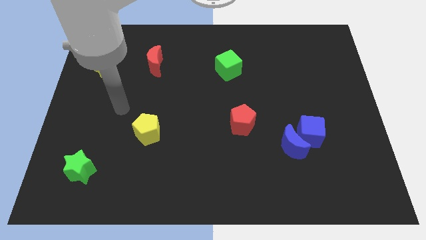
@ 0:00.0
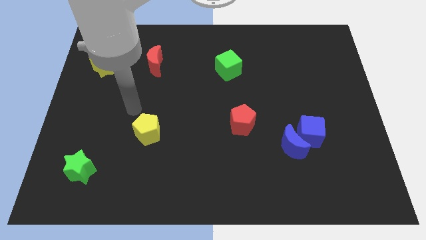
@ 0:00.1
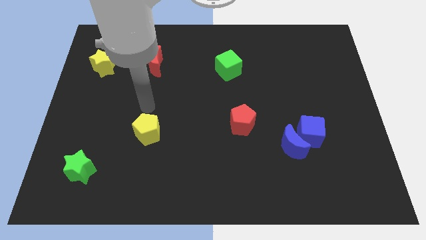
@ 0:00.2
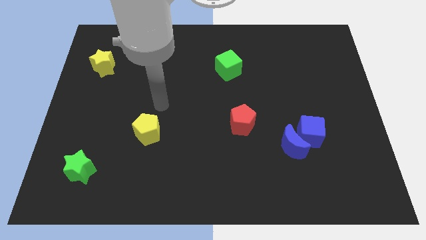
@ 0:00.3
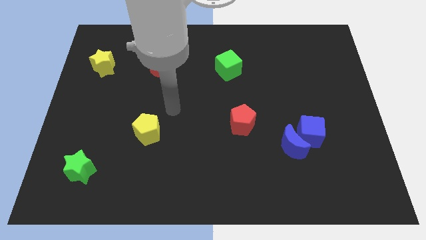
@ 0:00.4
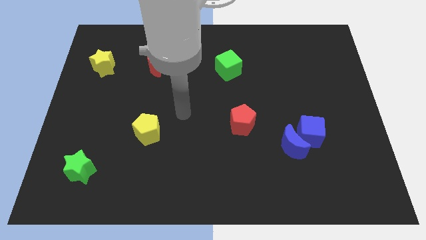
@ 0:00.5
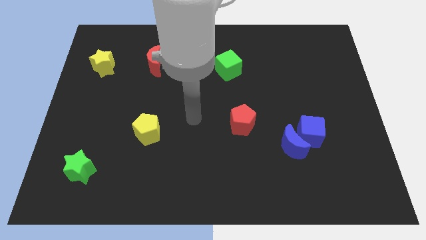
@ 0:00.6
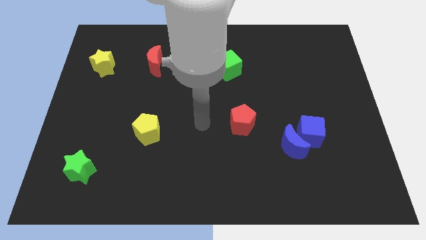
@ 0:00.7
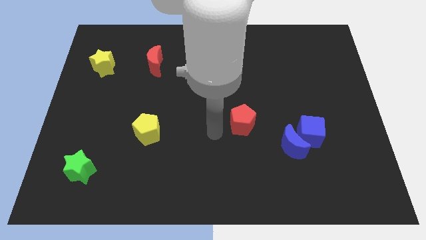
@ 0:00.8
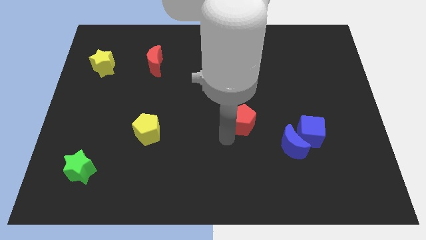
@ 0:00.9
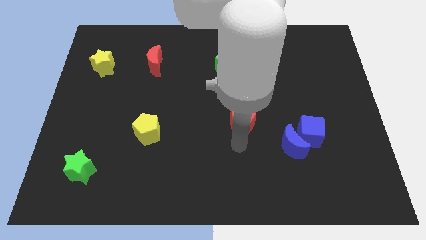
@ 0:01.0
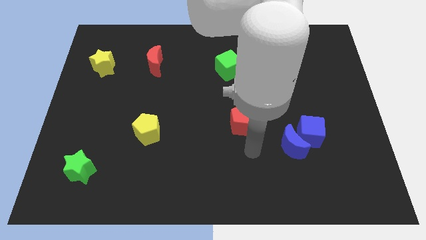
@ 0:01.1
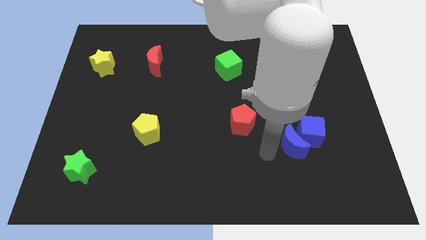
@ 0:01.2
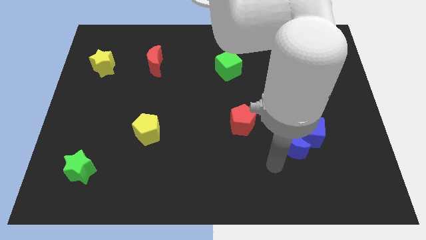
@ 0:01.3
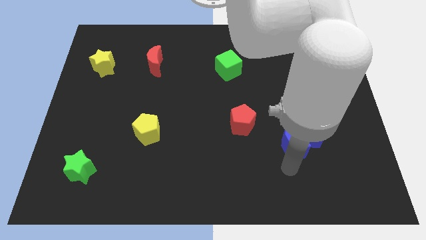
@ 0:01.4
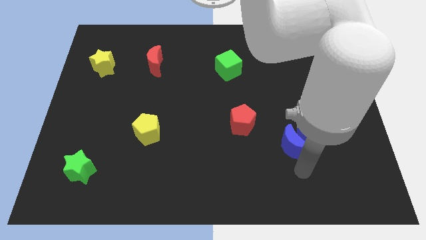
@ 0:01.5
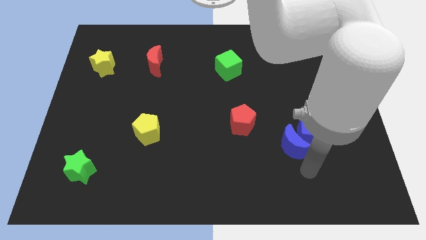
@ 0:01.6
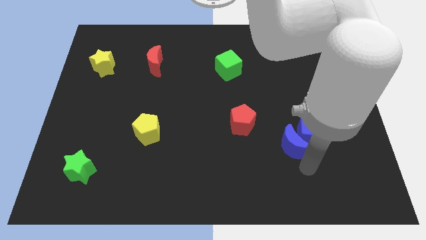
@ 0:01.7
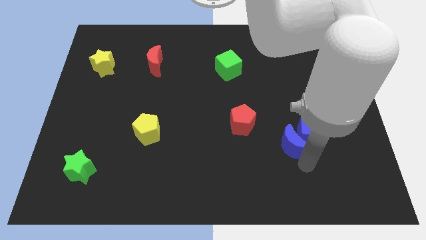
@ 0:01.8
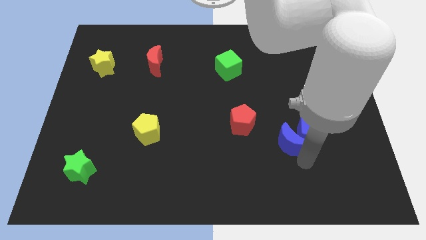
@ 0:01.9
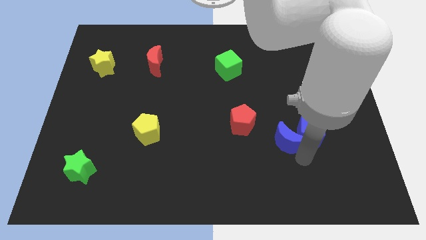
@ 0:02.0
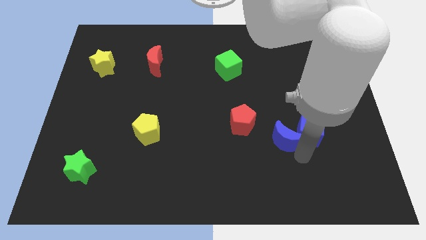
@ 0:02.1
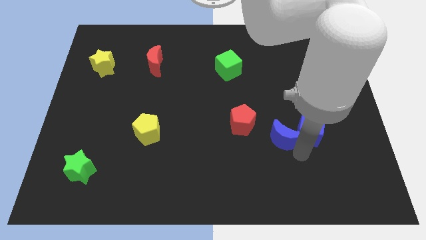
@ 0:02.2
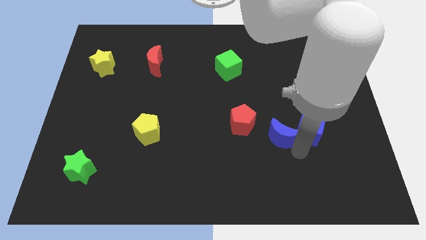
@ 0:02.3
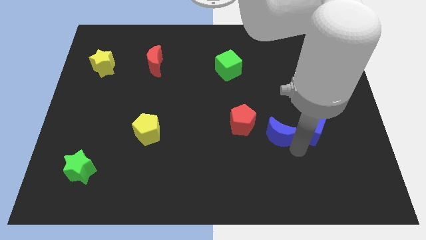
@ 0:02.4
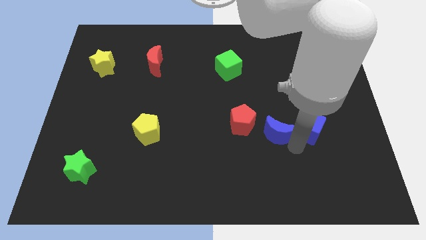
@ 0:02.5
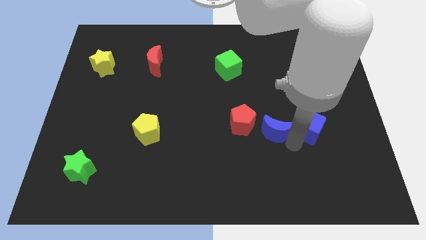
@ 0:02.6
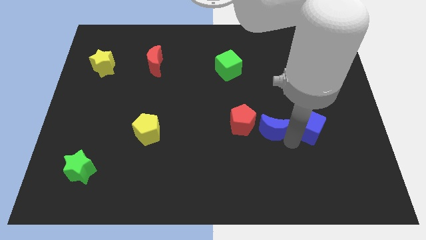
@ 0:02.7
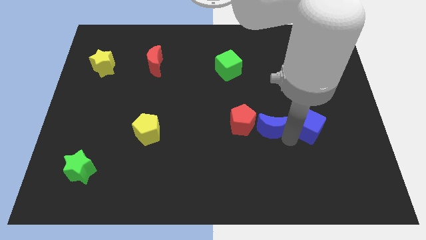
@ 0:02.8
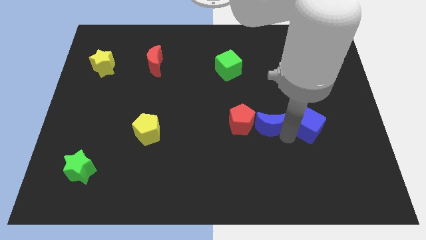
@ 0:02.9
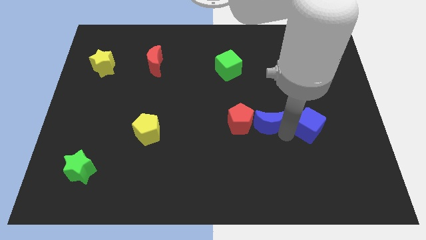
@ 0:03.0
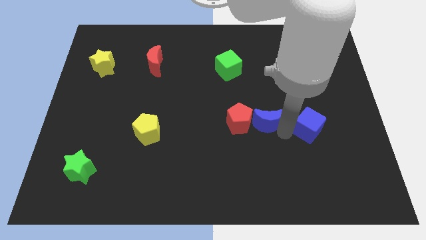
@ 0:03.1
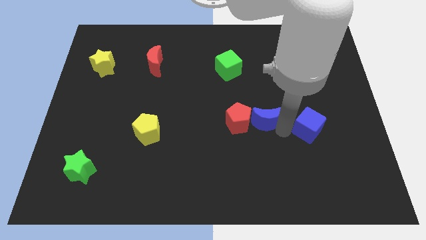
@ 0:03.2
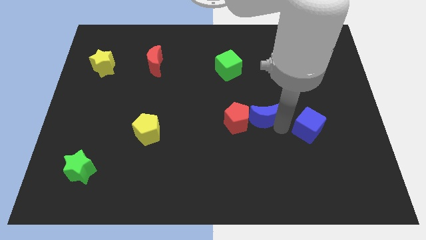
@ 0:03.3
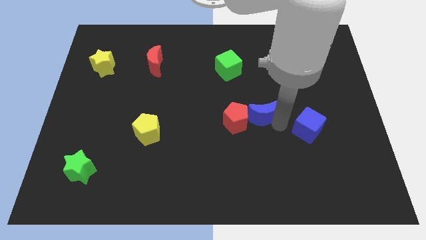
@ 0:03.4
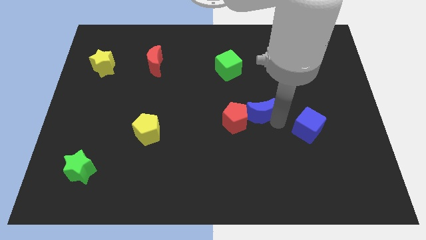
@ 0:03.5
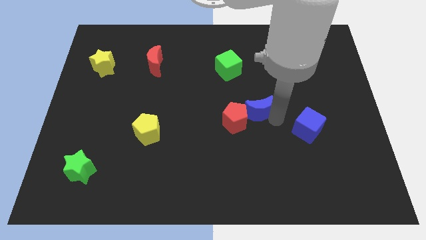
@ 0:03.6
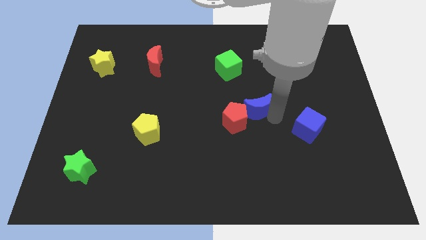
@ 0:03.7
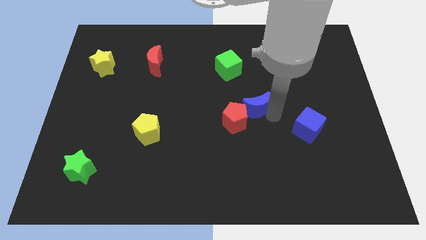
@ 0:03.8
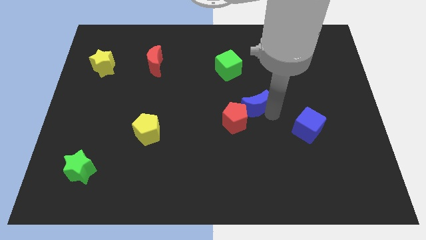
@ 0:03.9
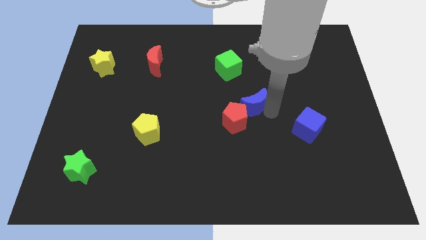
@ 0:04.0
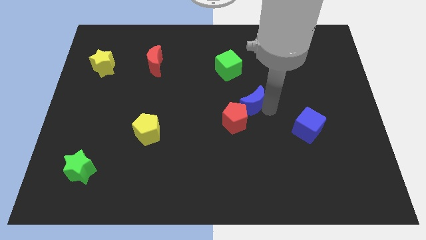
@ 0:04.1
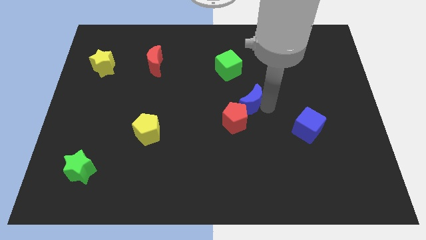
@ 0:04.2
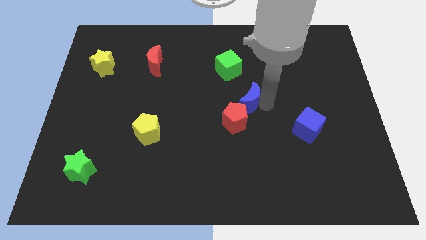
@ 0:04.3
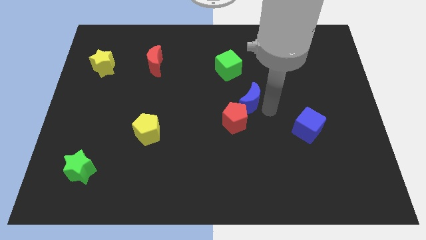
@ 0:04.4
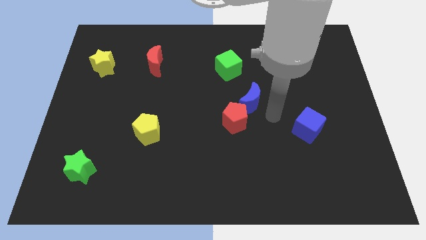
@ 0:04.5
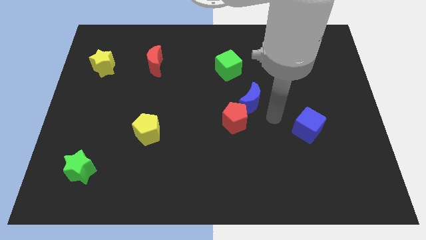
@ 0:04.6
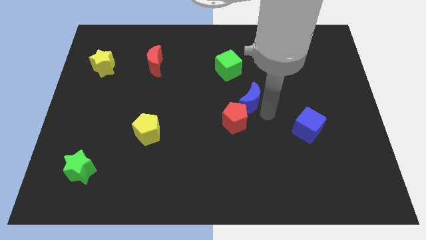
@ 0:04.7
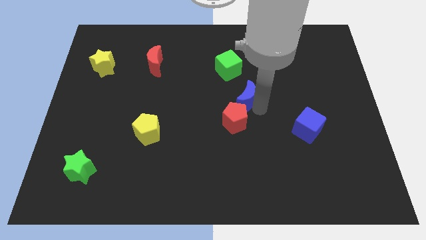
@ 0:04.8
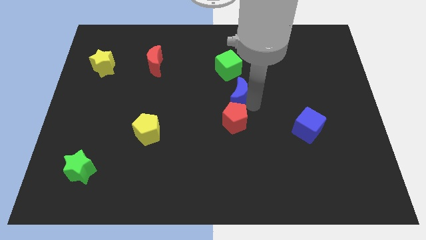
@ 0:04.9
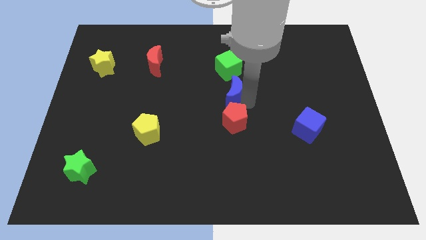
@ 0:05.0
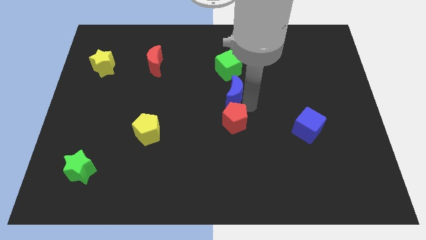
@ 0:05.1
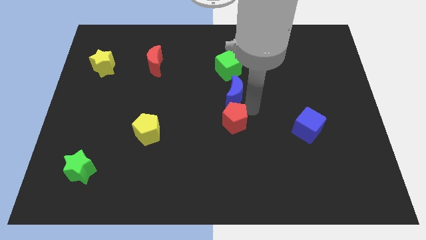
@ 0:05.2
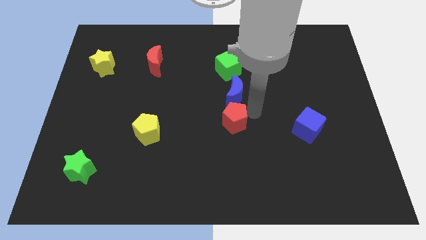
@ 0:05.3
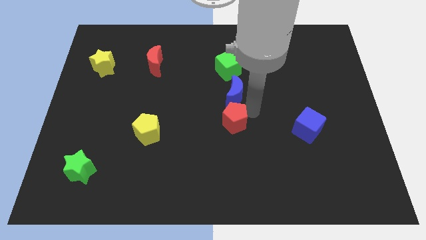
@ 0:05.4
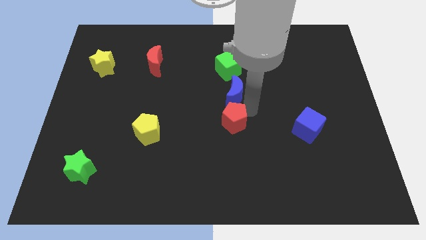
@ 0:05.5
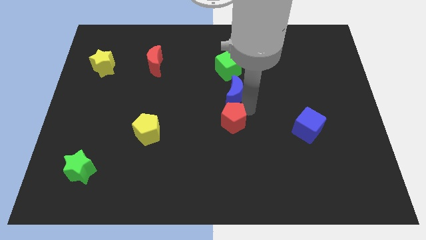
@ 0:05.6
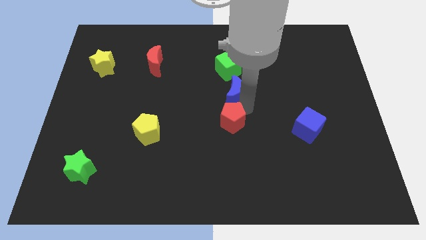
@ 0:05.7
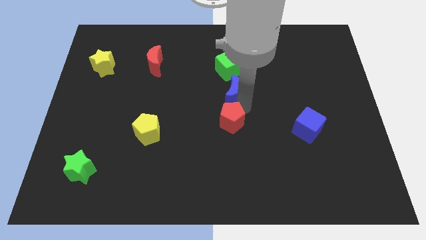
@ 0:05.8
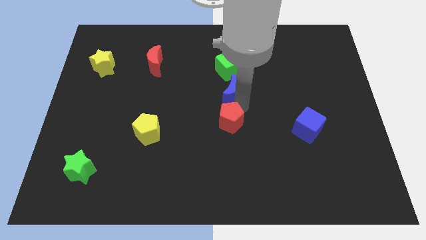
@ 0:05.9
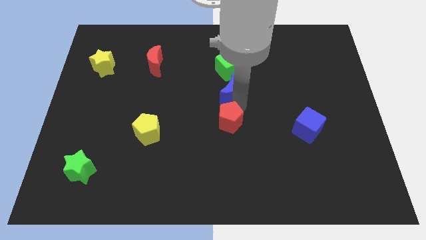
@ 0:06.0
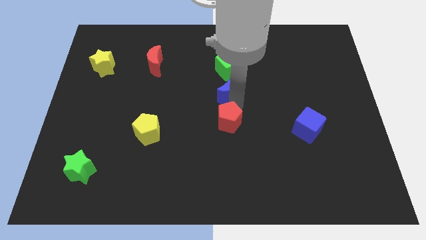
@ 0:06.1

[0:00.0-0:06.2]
move the blue moon upwards and to the left

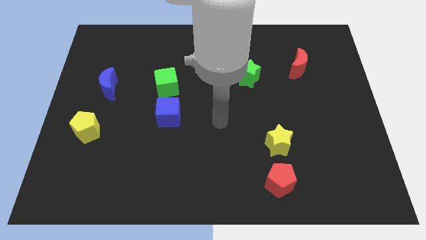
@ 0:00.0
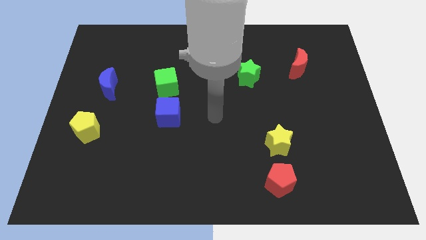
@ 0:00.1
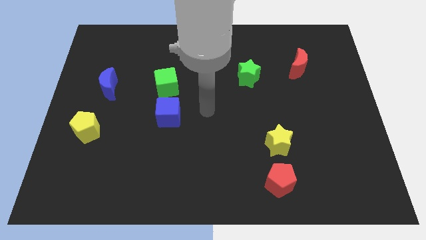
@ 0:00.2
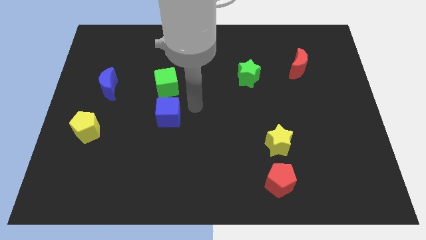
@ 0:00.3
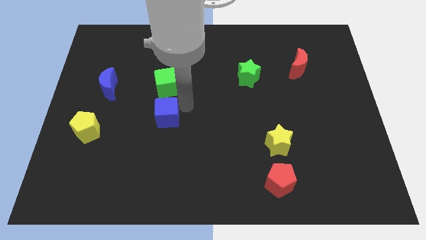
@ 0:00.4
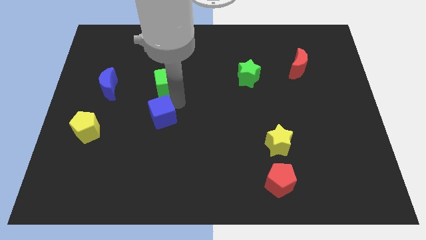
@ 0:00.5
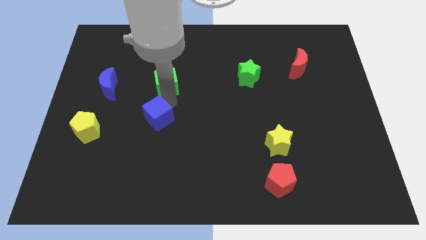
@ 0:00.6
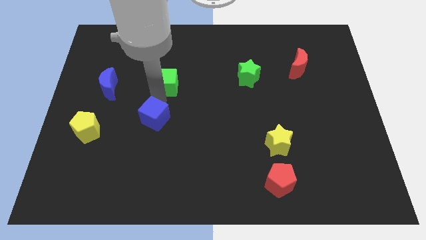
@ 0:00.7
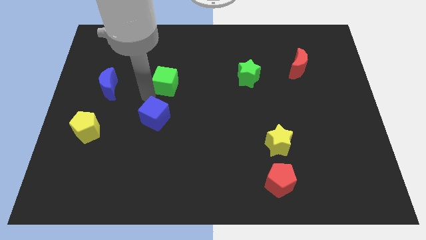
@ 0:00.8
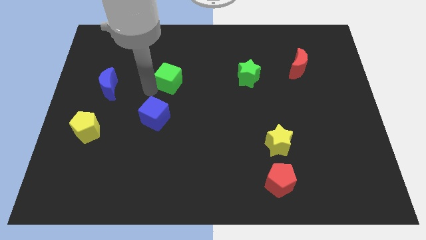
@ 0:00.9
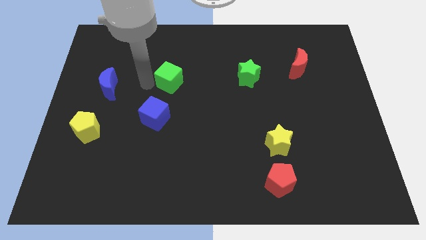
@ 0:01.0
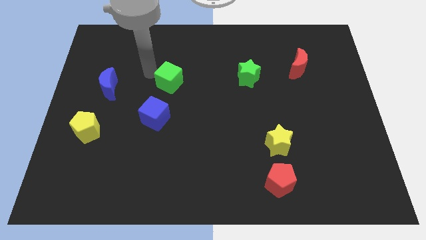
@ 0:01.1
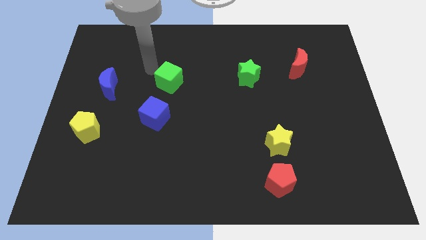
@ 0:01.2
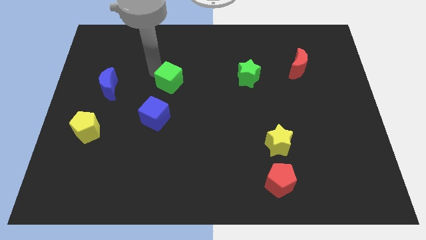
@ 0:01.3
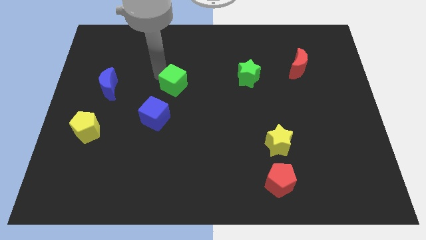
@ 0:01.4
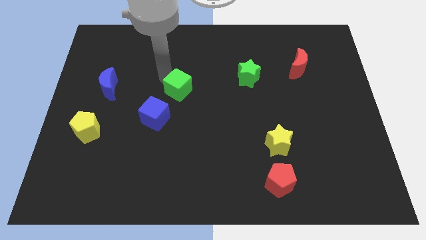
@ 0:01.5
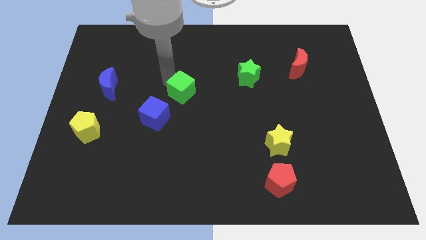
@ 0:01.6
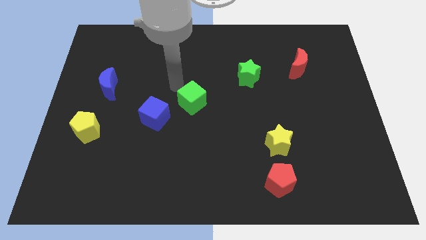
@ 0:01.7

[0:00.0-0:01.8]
move the green cube diagonally down and to the right a little bit
